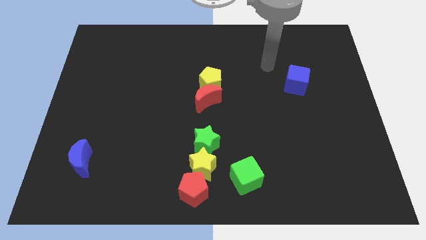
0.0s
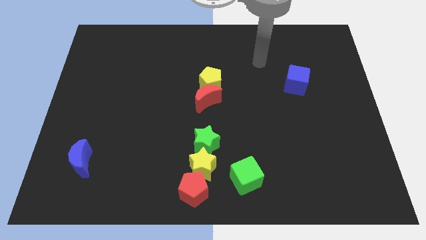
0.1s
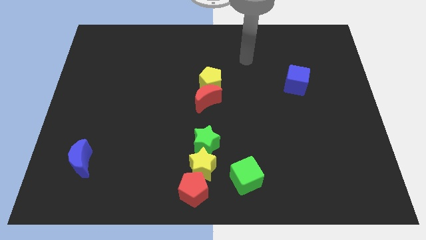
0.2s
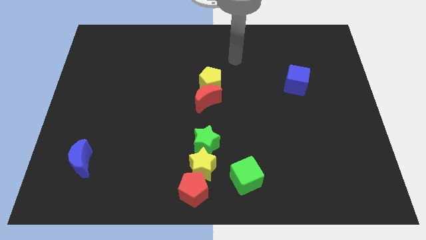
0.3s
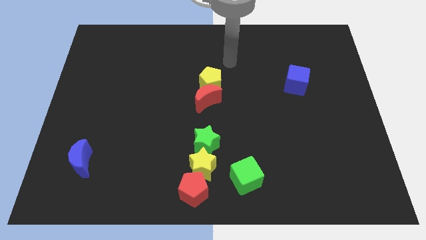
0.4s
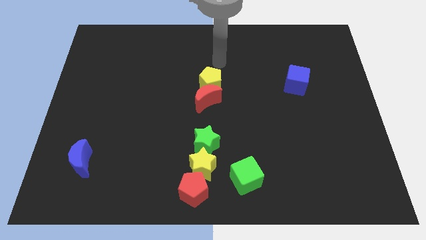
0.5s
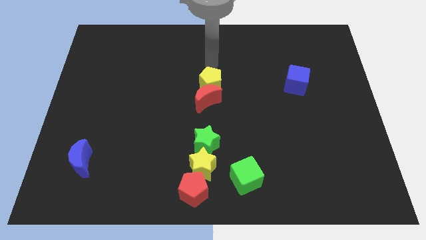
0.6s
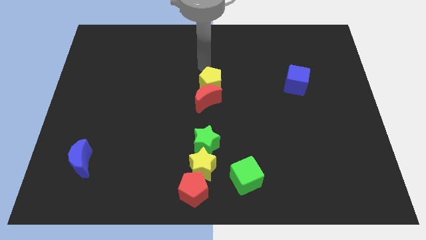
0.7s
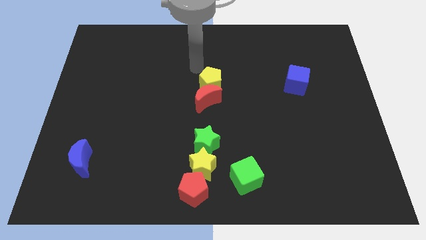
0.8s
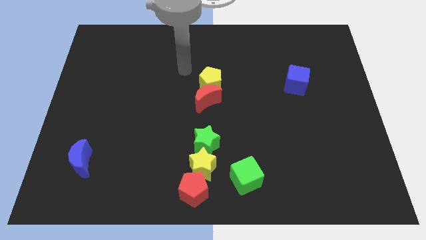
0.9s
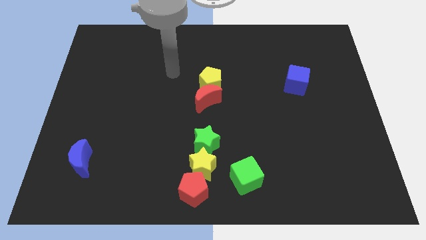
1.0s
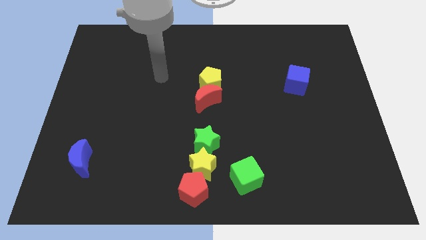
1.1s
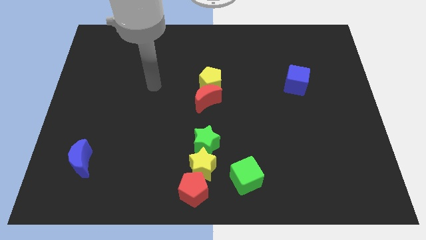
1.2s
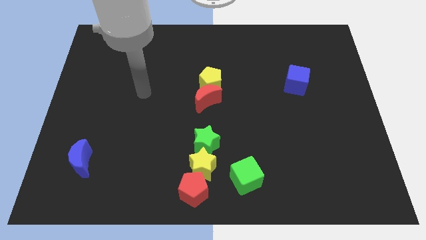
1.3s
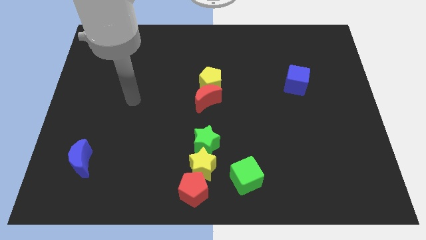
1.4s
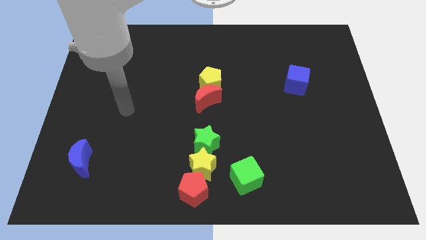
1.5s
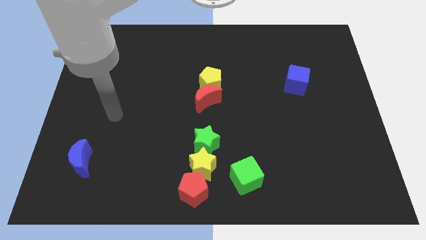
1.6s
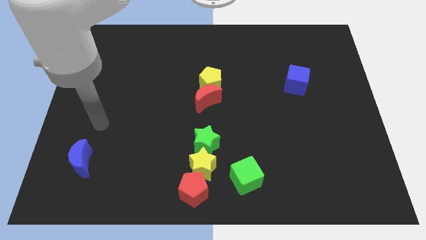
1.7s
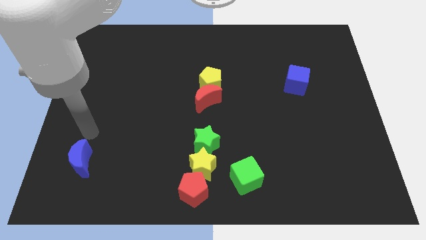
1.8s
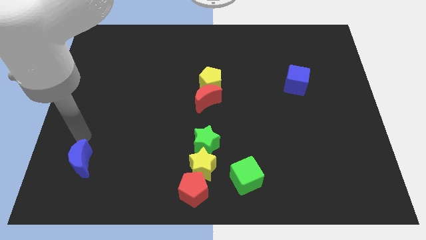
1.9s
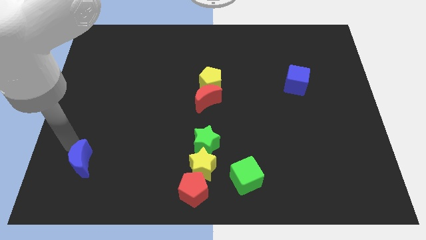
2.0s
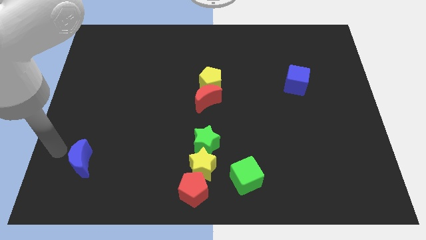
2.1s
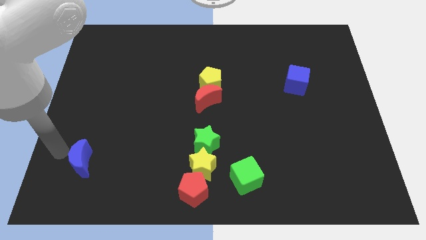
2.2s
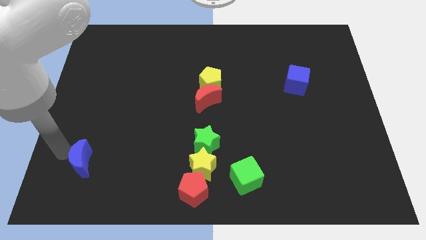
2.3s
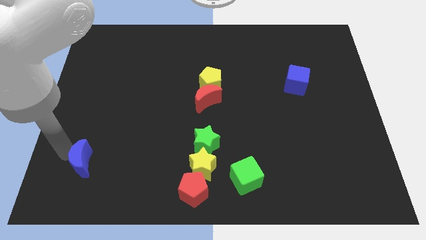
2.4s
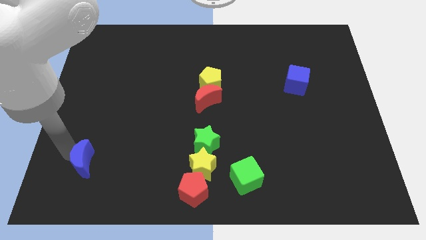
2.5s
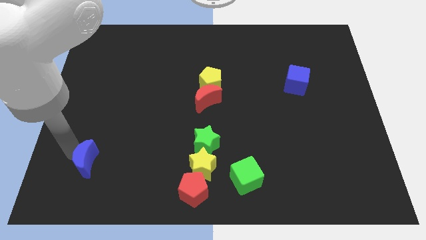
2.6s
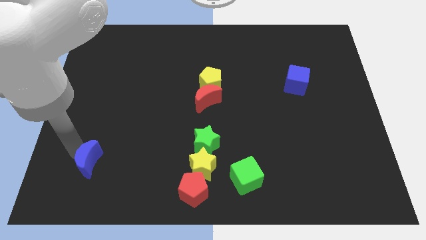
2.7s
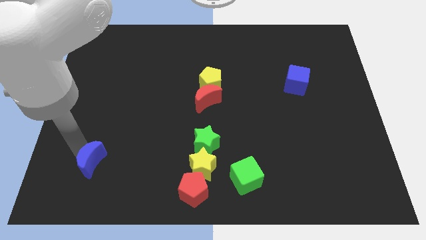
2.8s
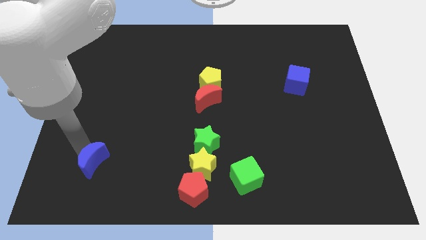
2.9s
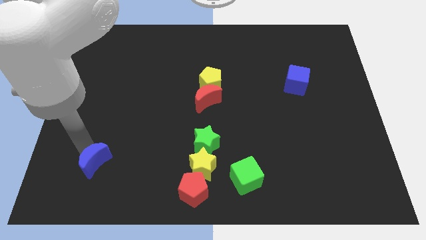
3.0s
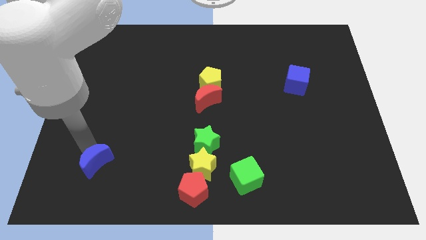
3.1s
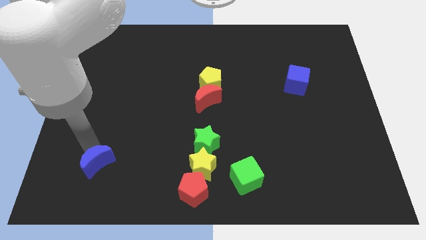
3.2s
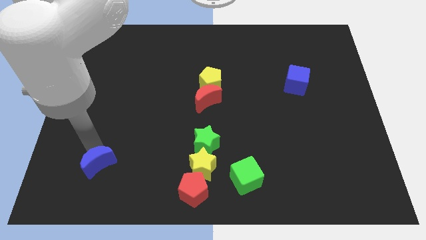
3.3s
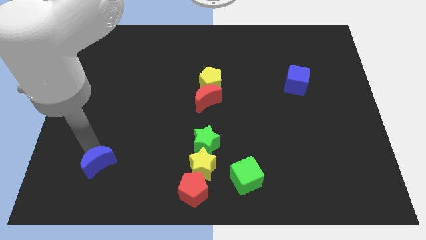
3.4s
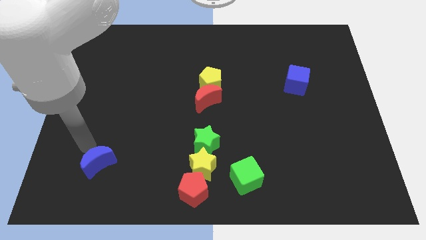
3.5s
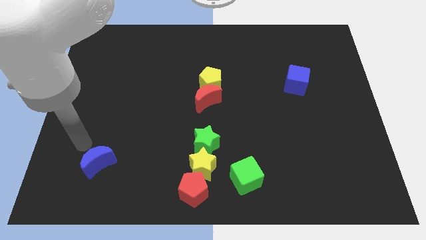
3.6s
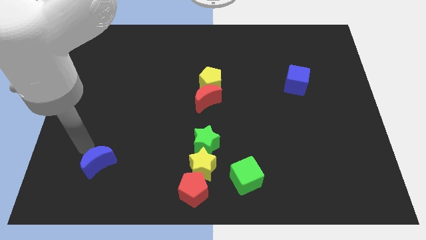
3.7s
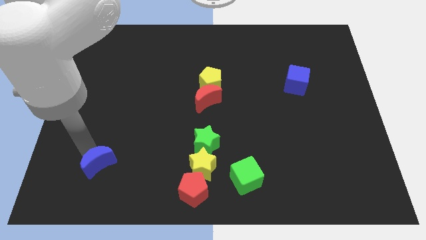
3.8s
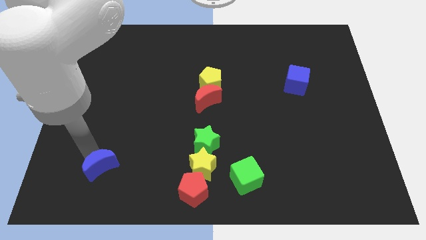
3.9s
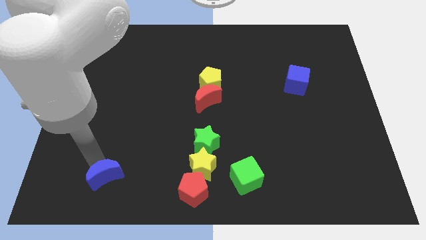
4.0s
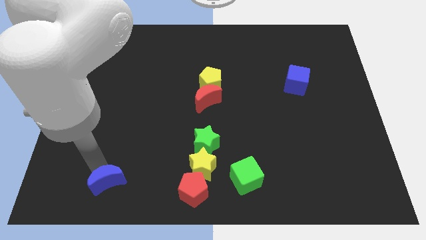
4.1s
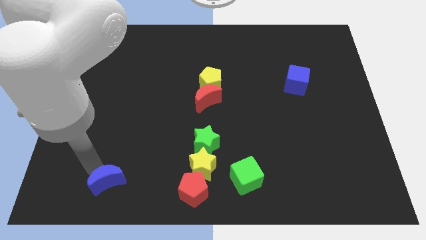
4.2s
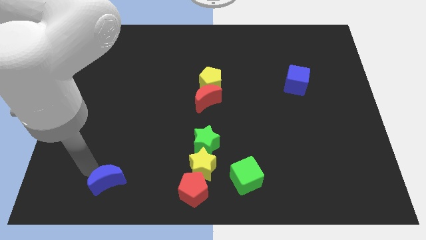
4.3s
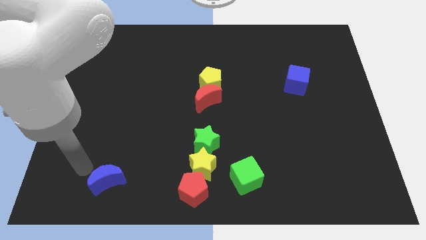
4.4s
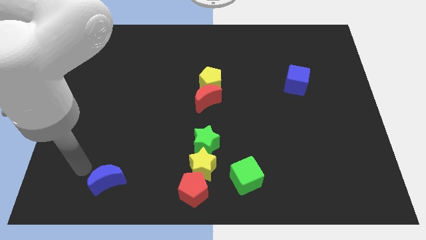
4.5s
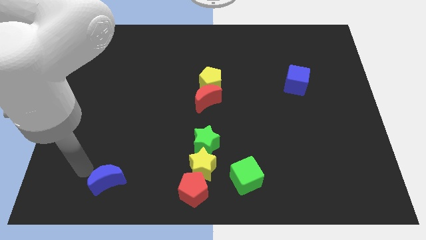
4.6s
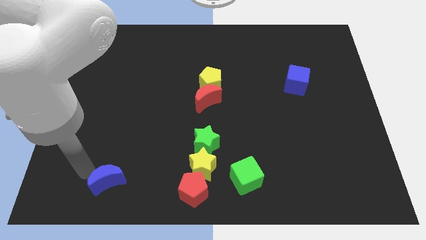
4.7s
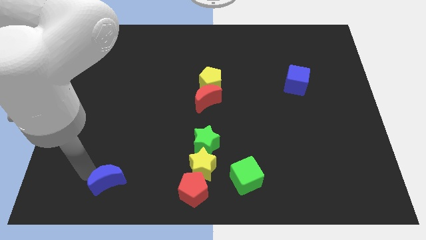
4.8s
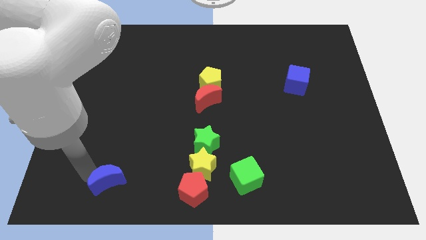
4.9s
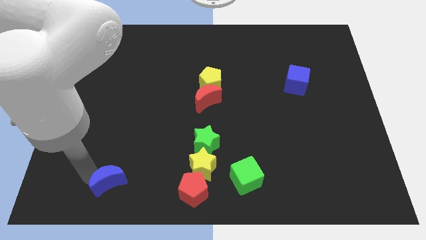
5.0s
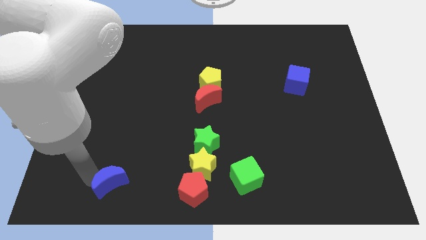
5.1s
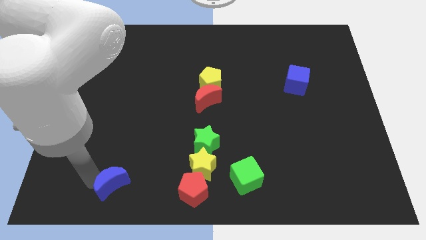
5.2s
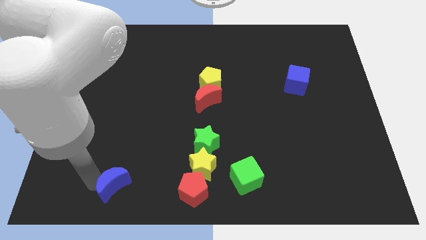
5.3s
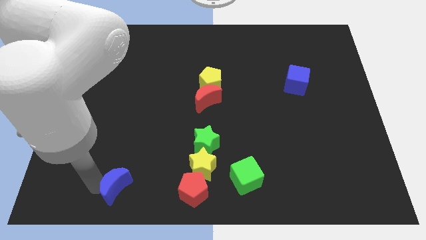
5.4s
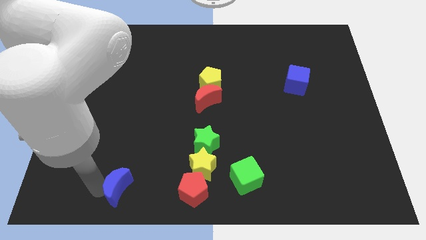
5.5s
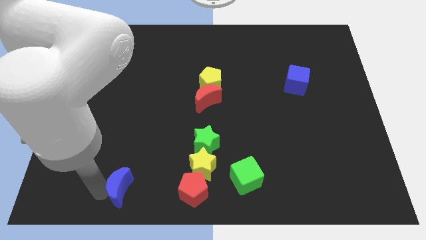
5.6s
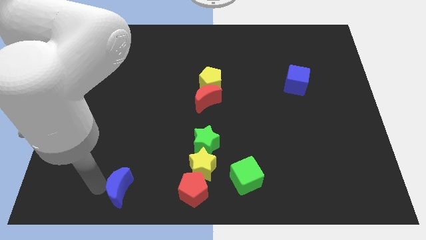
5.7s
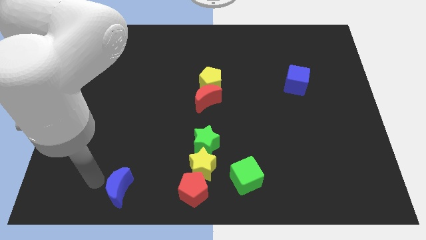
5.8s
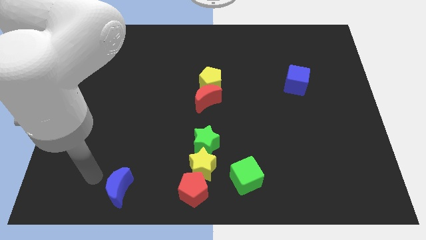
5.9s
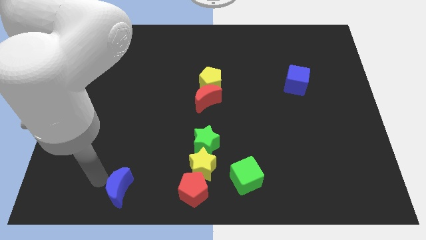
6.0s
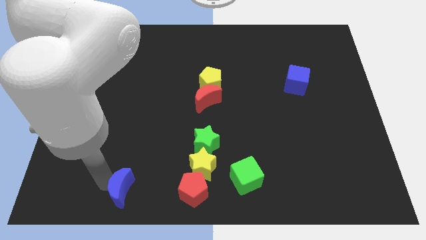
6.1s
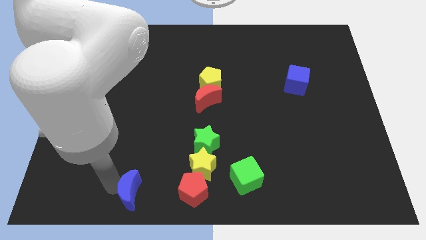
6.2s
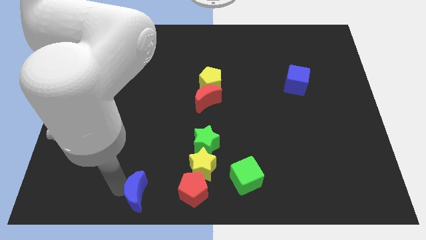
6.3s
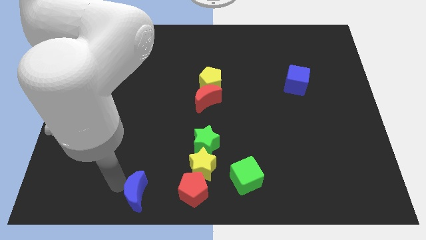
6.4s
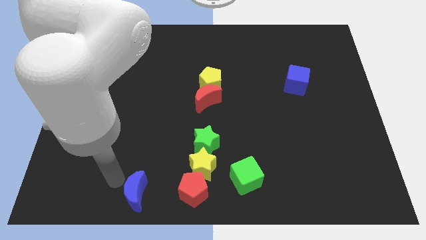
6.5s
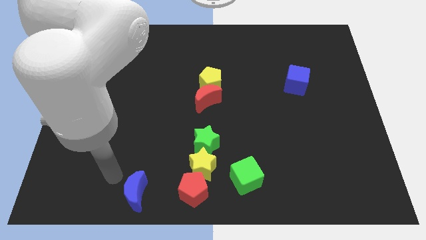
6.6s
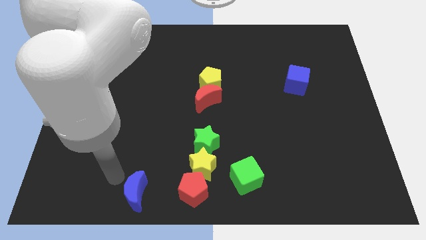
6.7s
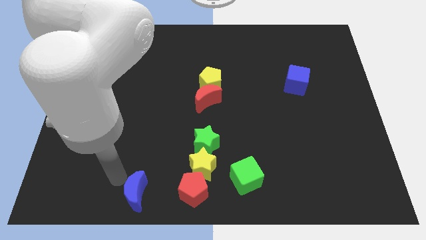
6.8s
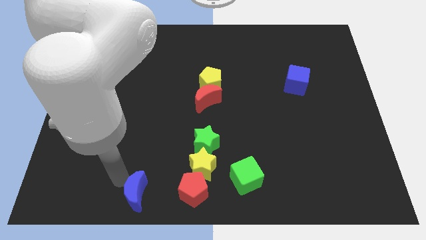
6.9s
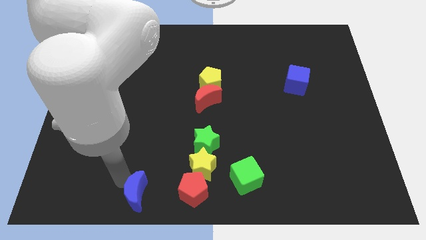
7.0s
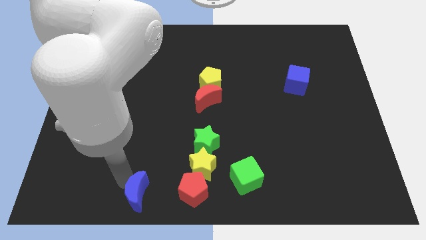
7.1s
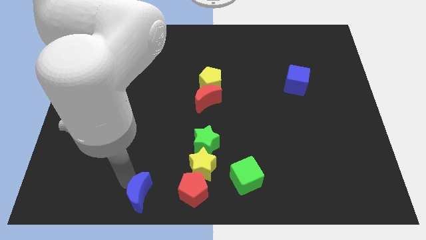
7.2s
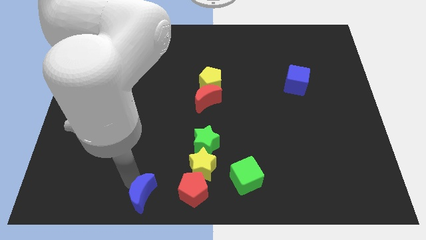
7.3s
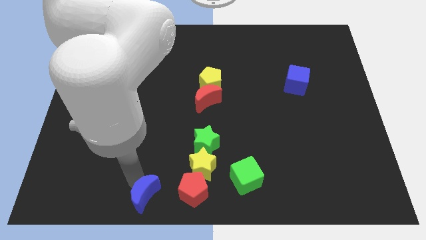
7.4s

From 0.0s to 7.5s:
push the blue moon to the bottom side
